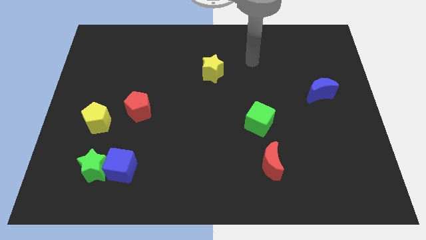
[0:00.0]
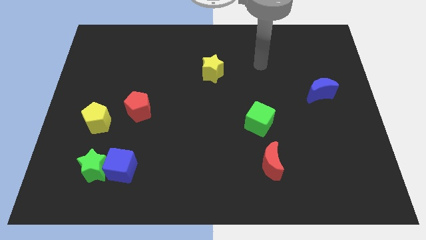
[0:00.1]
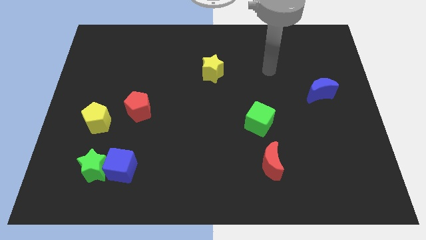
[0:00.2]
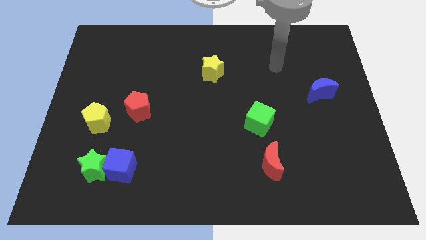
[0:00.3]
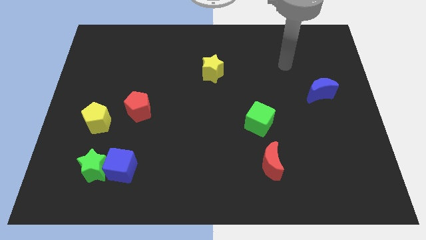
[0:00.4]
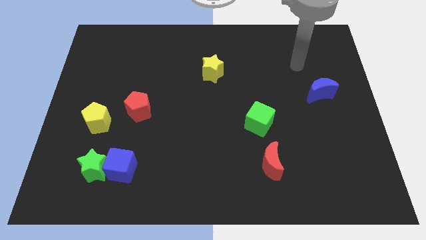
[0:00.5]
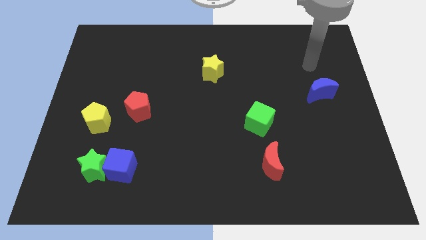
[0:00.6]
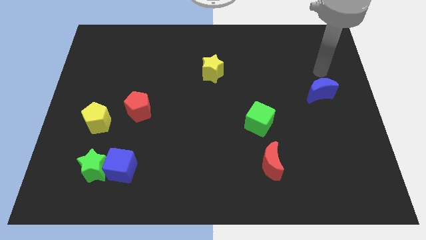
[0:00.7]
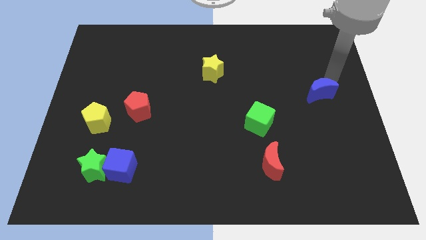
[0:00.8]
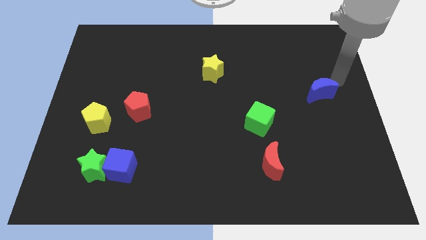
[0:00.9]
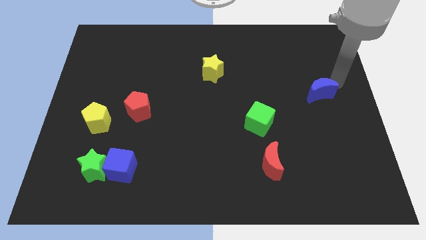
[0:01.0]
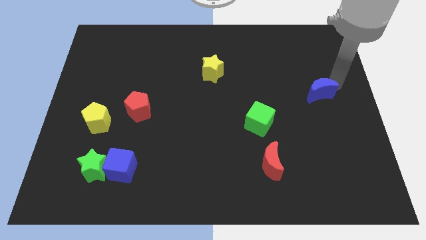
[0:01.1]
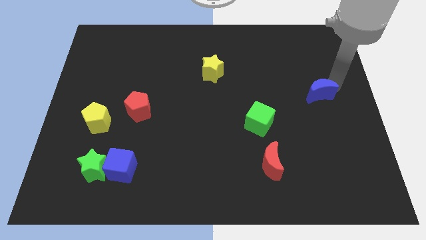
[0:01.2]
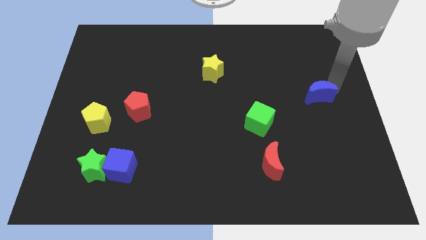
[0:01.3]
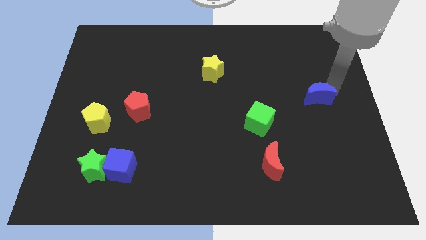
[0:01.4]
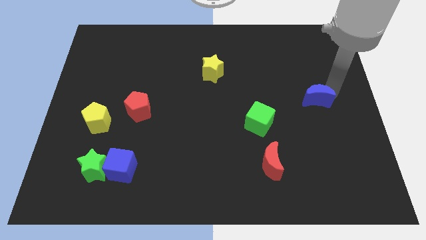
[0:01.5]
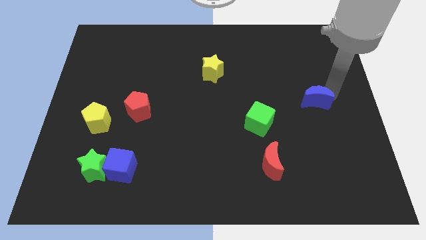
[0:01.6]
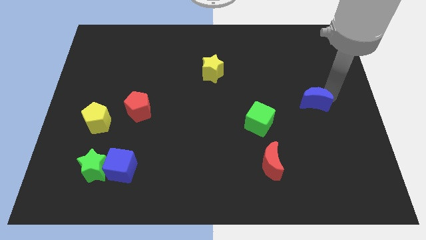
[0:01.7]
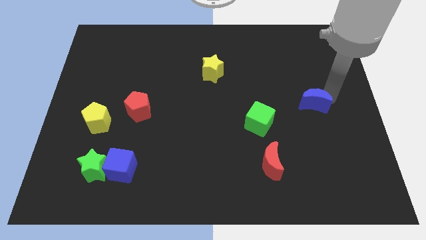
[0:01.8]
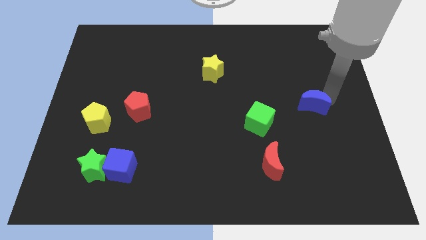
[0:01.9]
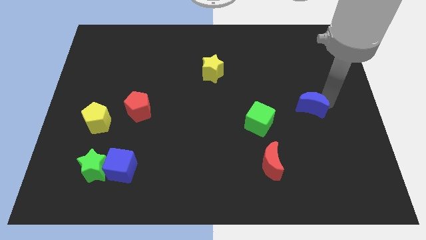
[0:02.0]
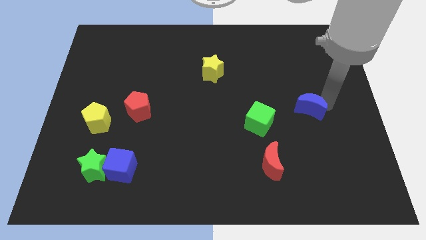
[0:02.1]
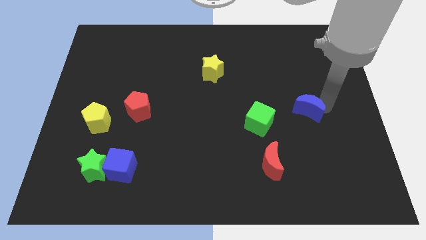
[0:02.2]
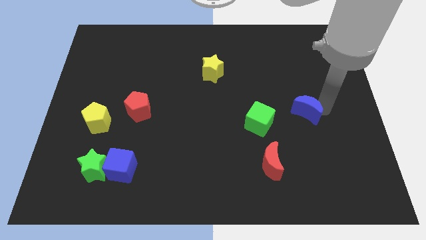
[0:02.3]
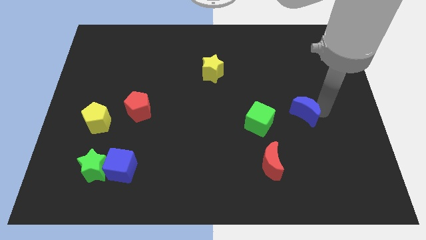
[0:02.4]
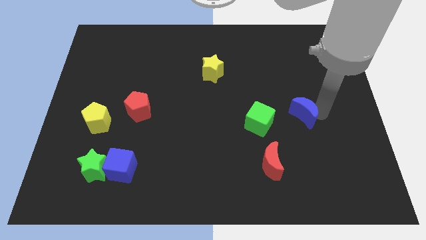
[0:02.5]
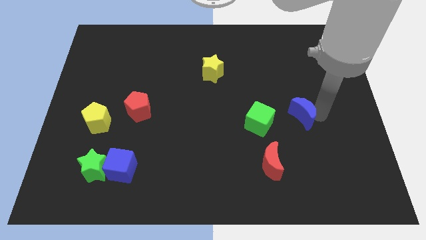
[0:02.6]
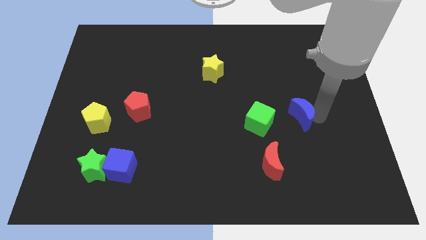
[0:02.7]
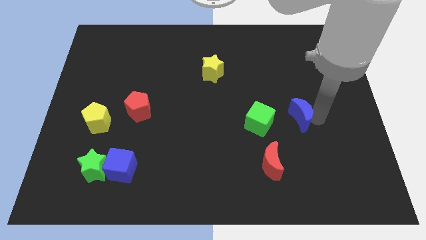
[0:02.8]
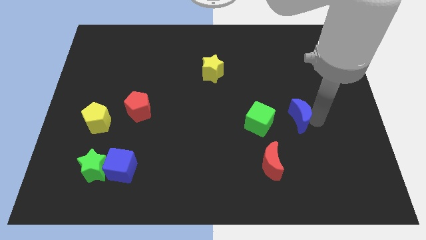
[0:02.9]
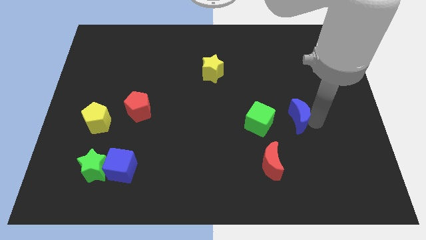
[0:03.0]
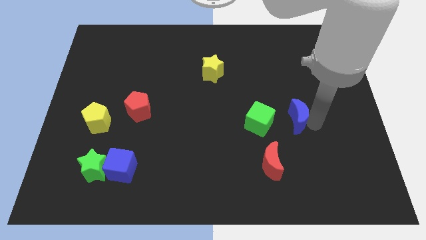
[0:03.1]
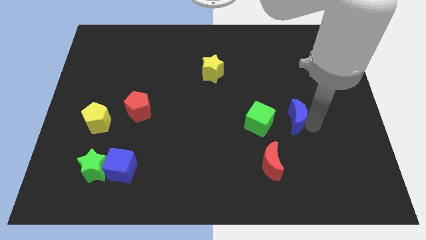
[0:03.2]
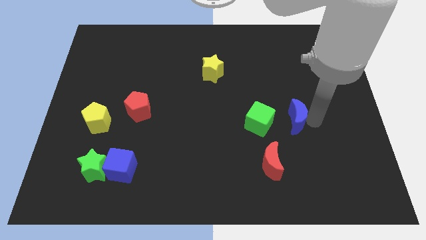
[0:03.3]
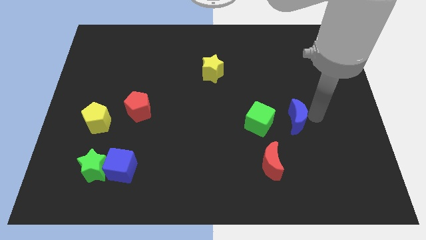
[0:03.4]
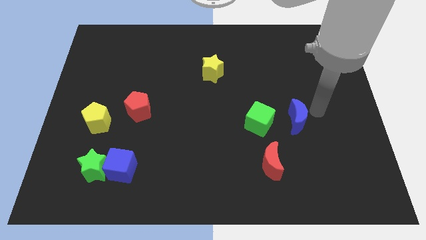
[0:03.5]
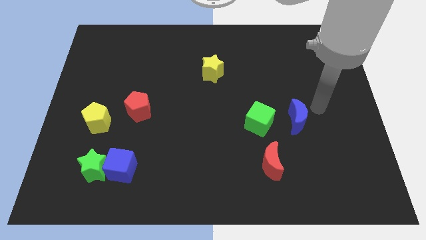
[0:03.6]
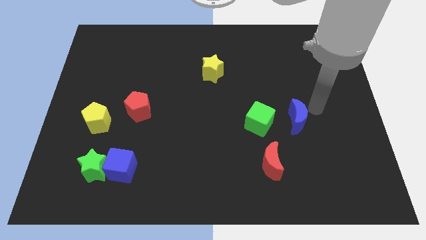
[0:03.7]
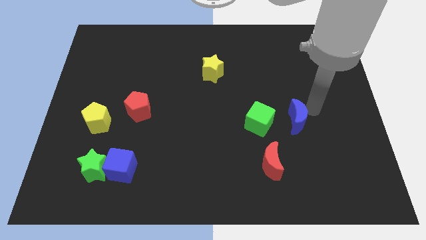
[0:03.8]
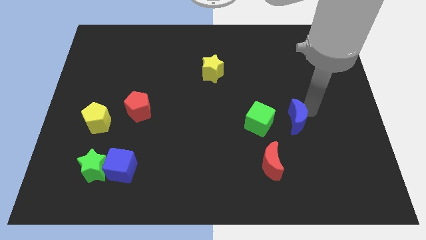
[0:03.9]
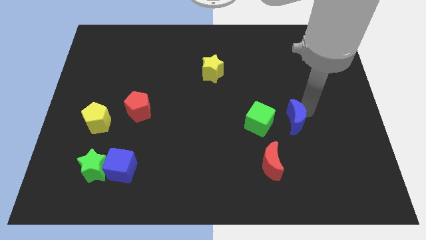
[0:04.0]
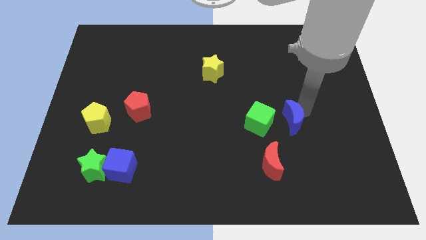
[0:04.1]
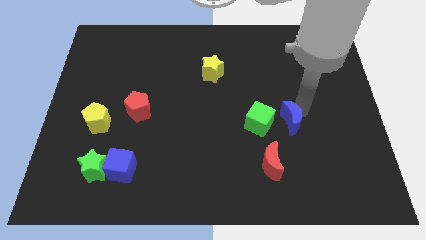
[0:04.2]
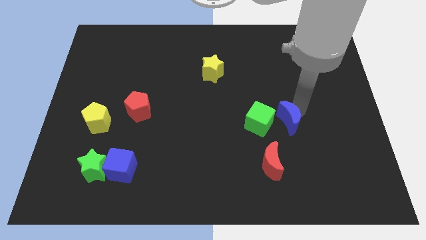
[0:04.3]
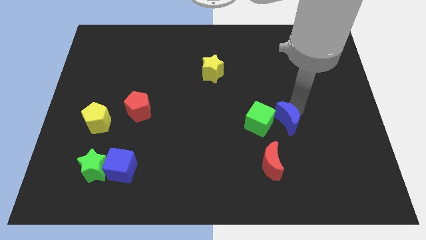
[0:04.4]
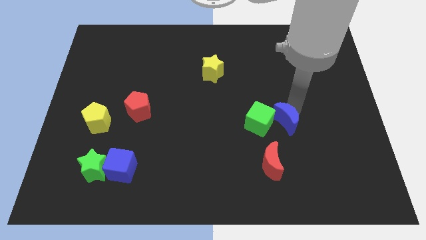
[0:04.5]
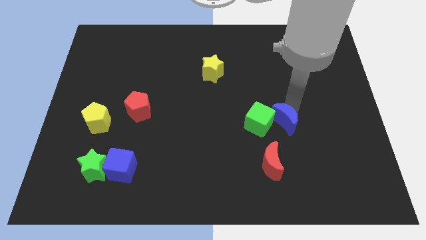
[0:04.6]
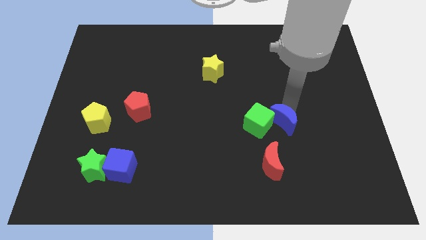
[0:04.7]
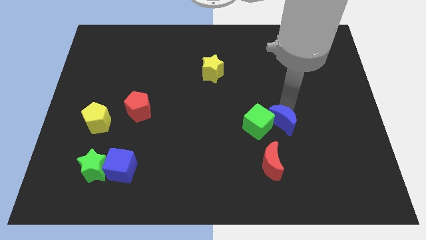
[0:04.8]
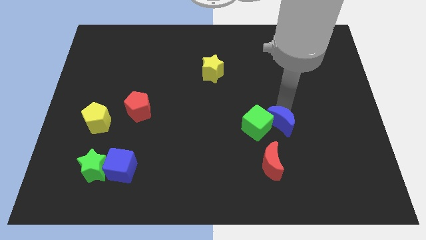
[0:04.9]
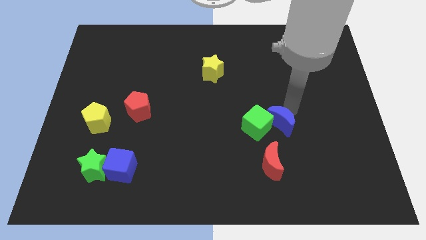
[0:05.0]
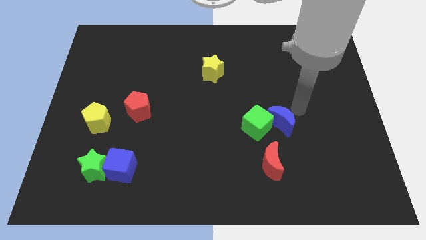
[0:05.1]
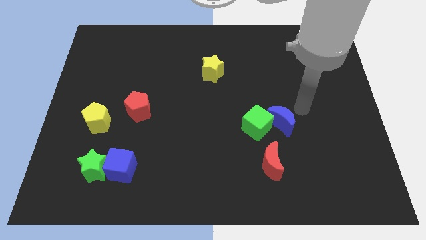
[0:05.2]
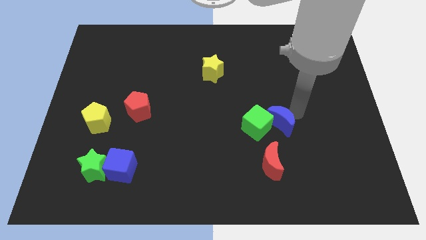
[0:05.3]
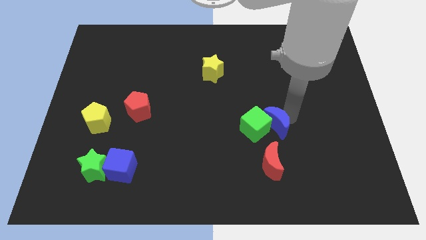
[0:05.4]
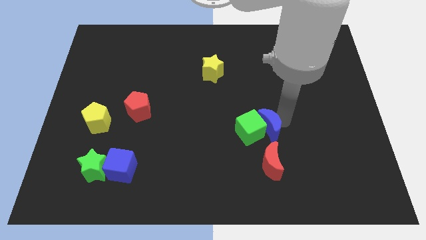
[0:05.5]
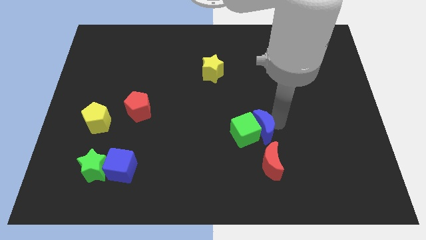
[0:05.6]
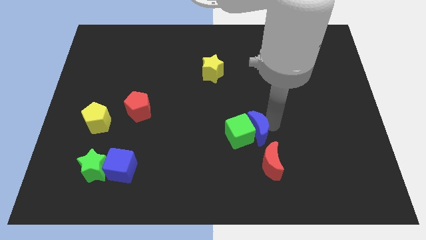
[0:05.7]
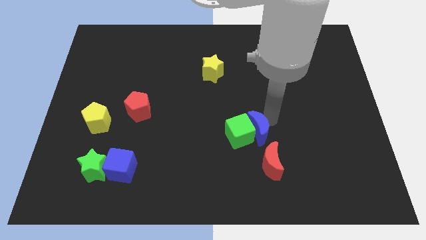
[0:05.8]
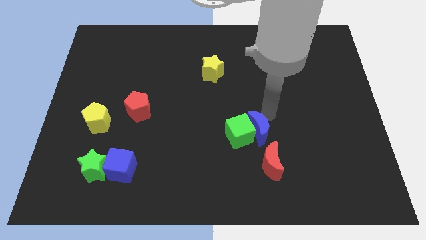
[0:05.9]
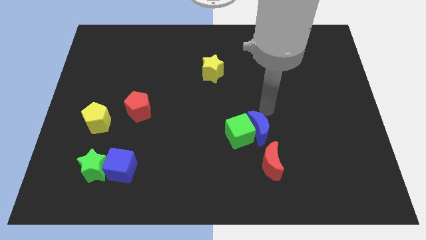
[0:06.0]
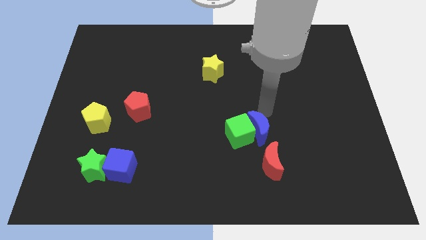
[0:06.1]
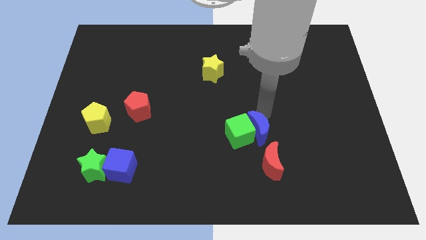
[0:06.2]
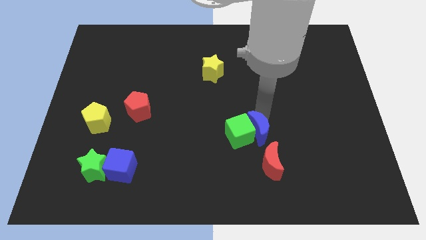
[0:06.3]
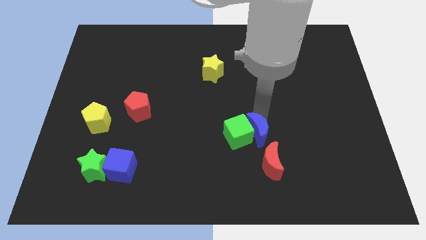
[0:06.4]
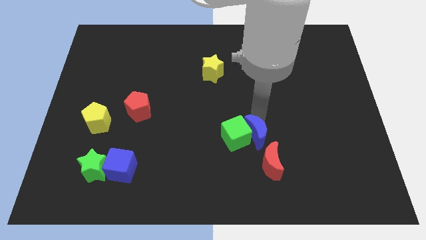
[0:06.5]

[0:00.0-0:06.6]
move the blue moon down and left

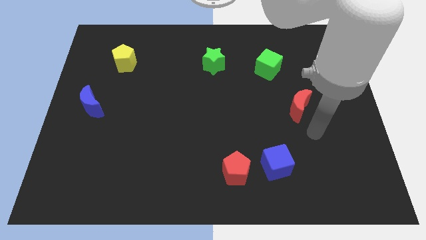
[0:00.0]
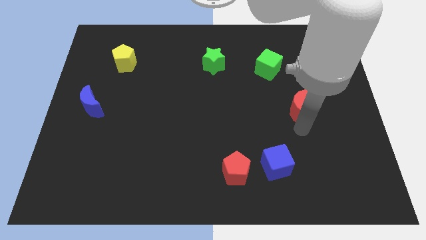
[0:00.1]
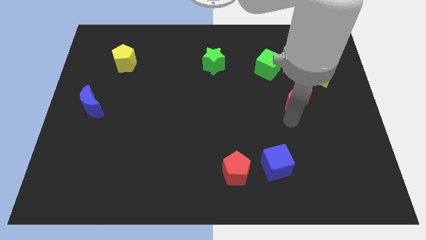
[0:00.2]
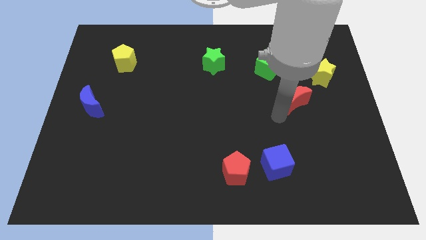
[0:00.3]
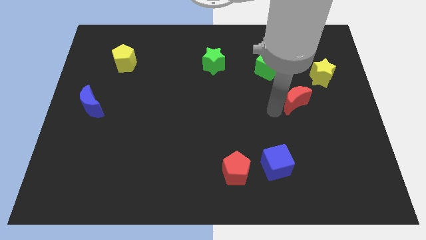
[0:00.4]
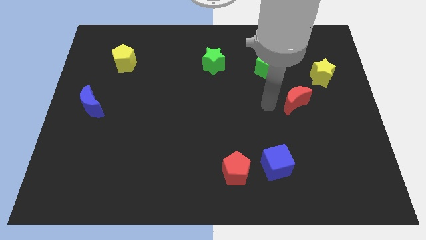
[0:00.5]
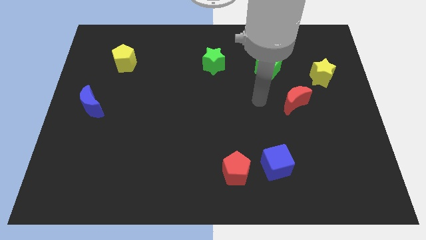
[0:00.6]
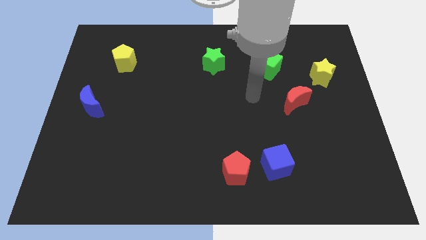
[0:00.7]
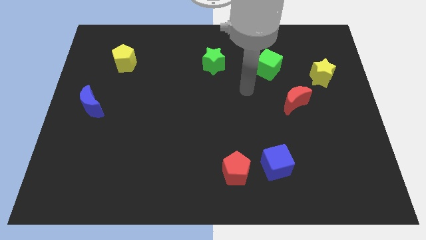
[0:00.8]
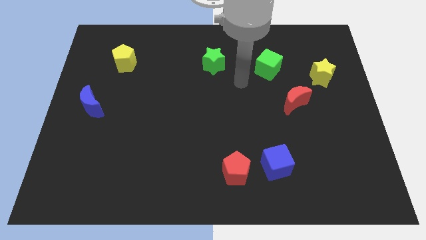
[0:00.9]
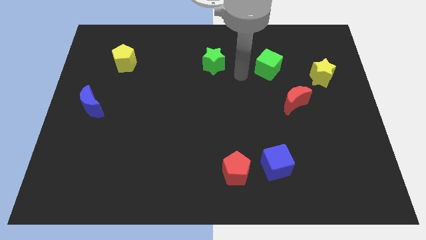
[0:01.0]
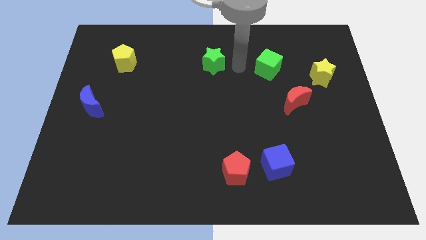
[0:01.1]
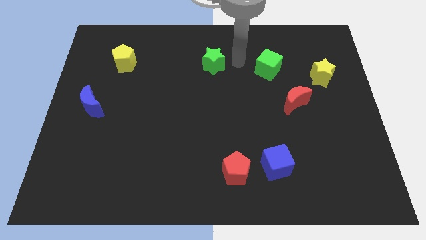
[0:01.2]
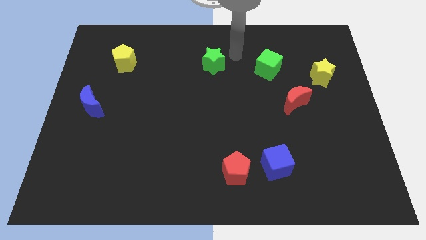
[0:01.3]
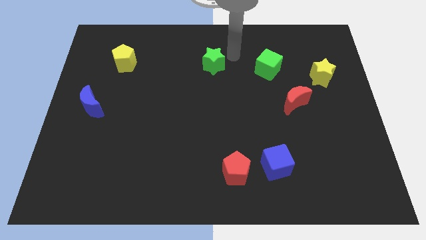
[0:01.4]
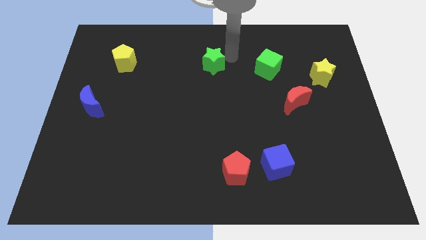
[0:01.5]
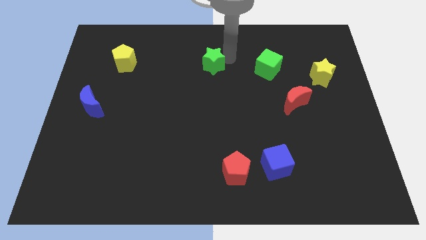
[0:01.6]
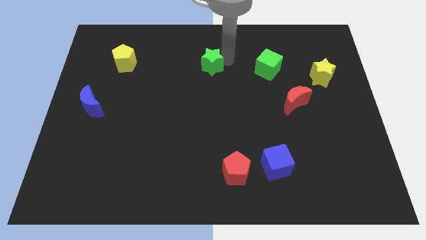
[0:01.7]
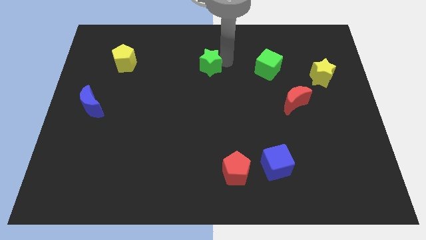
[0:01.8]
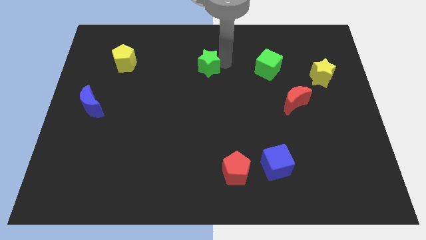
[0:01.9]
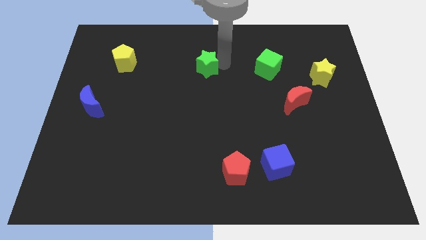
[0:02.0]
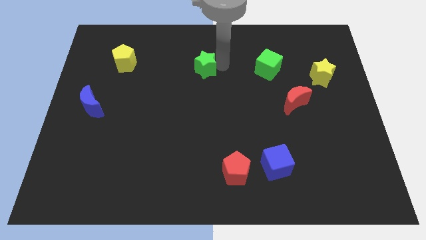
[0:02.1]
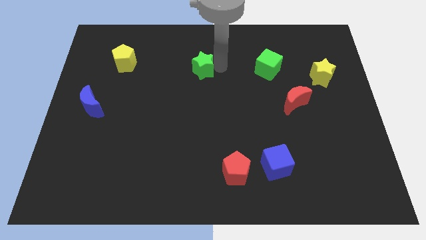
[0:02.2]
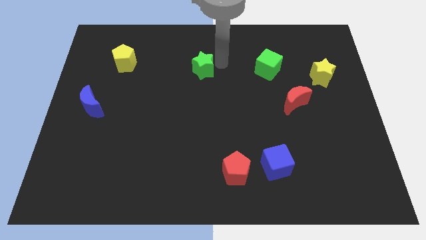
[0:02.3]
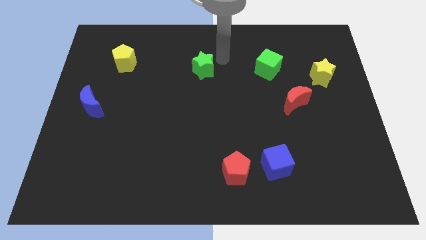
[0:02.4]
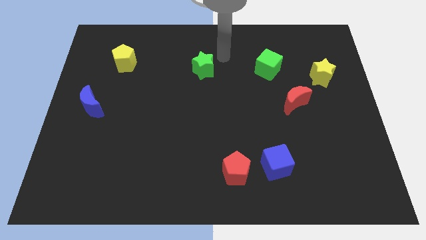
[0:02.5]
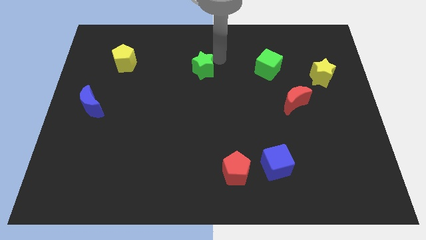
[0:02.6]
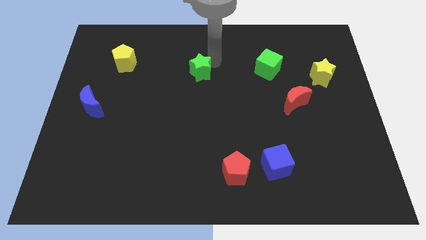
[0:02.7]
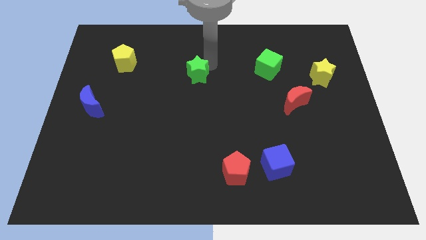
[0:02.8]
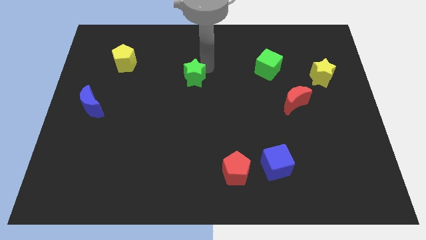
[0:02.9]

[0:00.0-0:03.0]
slightly push the green star diagonally downwards and left
